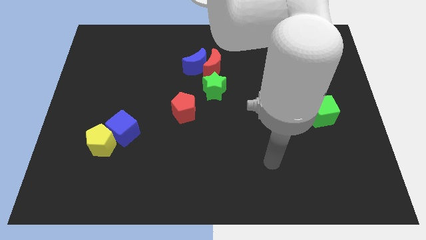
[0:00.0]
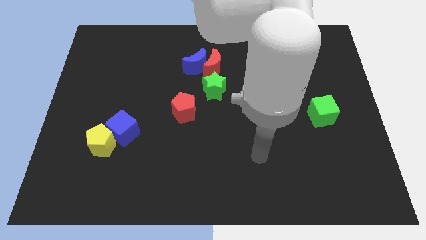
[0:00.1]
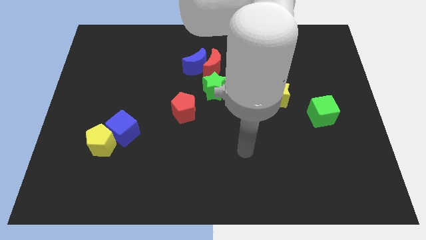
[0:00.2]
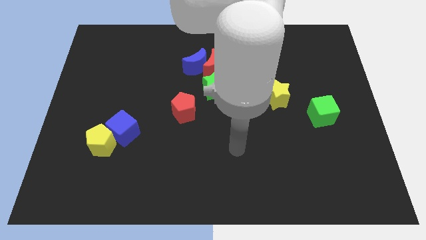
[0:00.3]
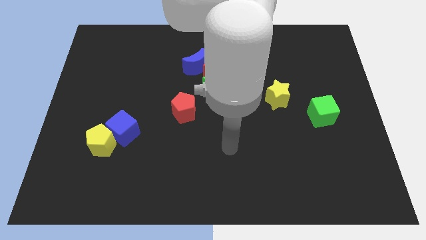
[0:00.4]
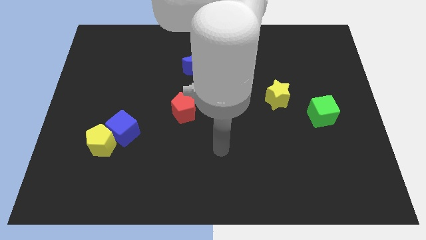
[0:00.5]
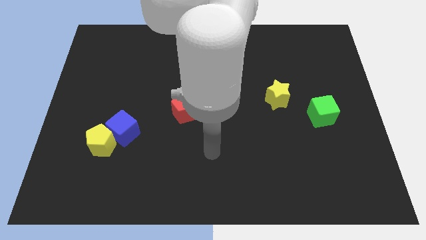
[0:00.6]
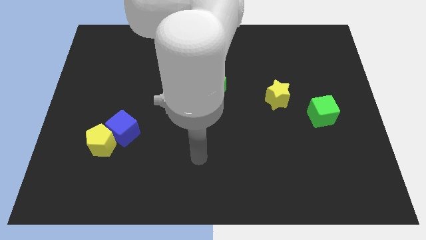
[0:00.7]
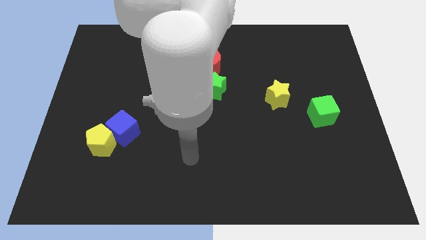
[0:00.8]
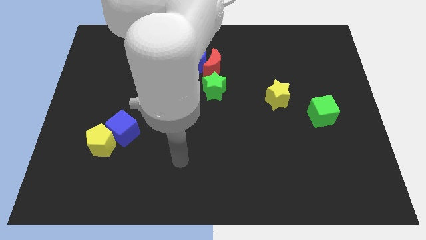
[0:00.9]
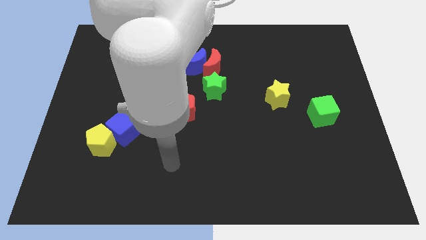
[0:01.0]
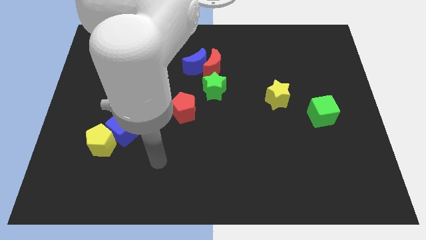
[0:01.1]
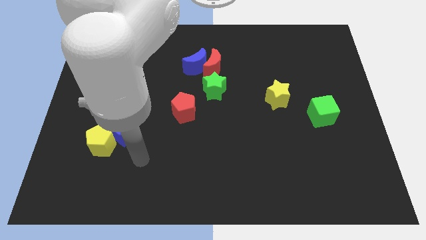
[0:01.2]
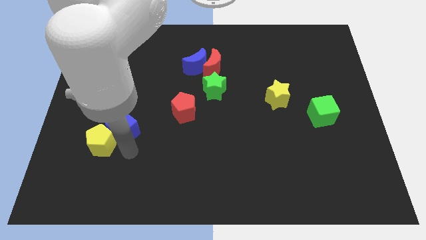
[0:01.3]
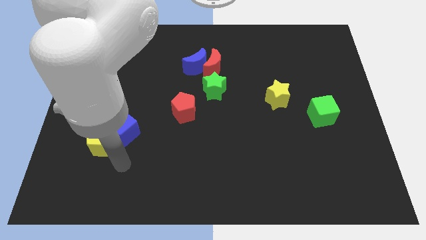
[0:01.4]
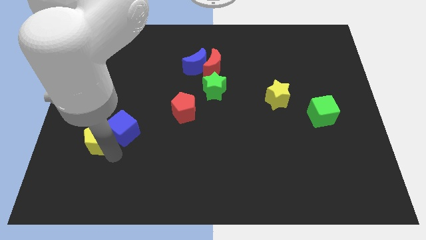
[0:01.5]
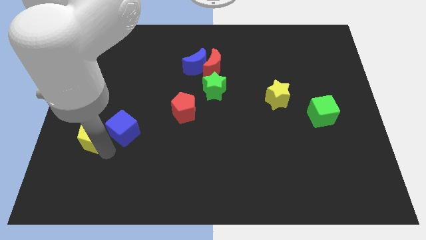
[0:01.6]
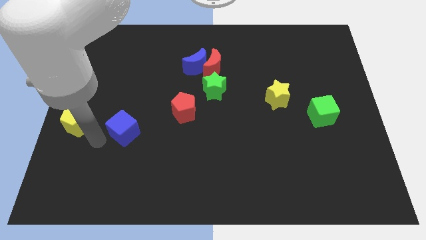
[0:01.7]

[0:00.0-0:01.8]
separate the blue cube from the yellow pentagon

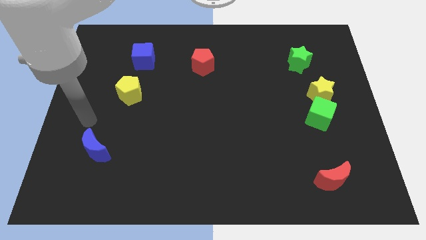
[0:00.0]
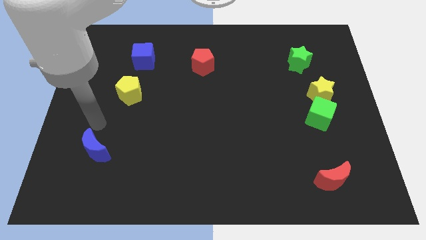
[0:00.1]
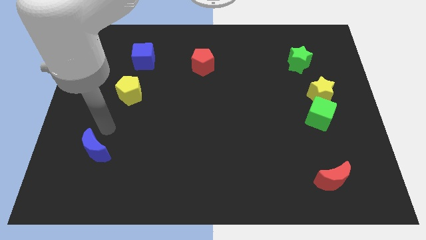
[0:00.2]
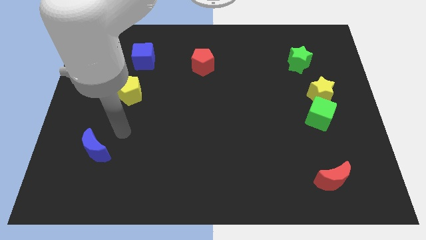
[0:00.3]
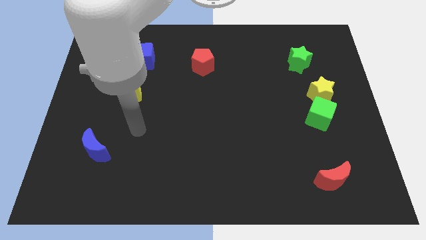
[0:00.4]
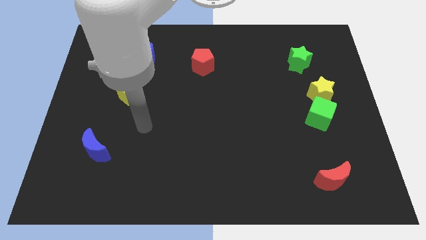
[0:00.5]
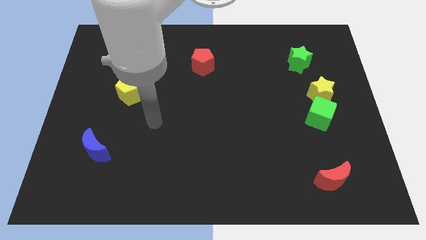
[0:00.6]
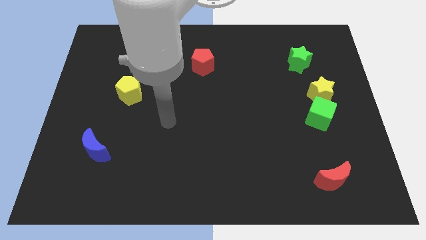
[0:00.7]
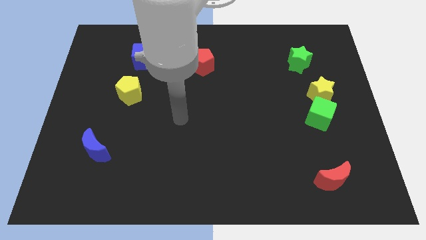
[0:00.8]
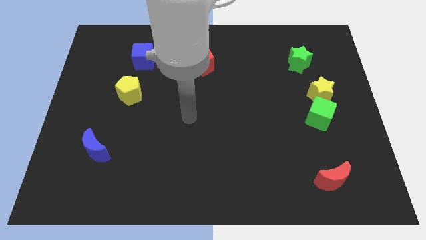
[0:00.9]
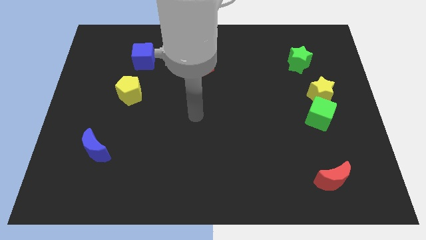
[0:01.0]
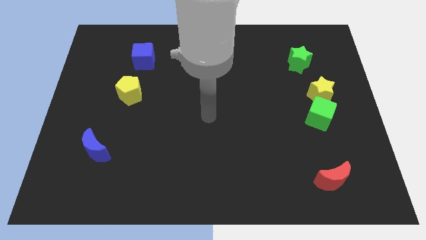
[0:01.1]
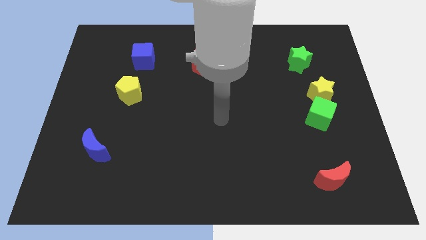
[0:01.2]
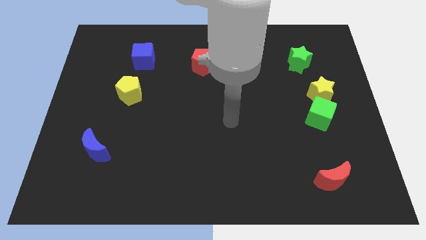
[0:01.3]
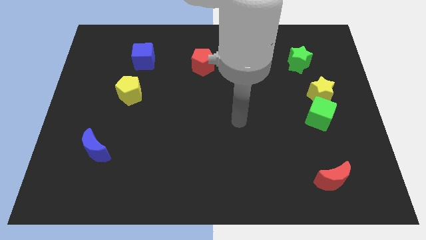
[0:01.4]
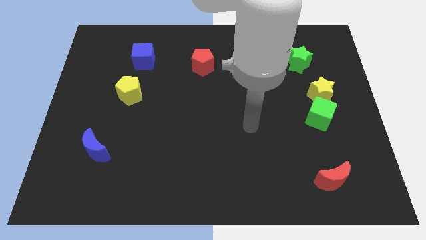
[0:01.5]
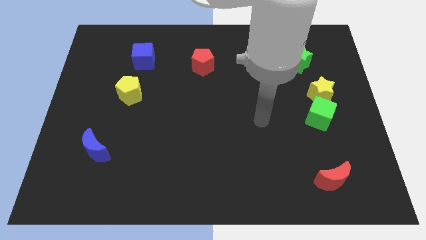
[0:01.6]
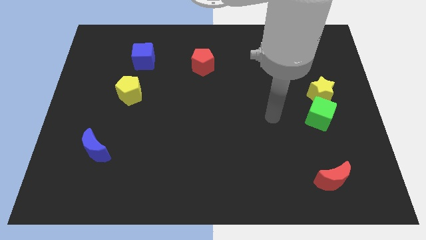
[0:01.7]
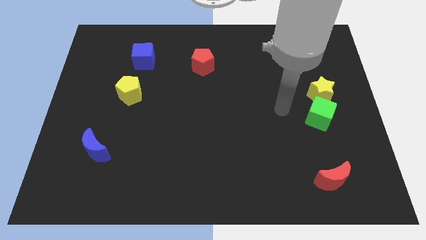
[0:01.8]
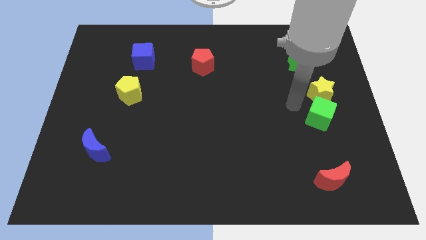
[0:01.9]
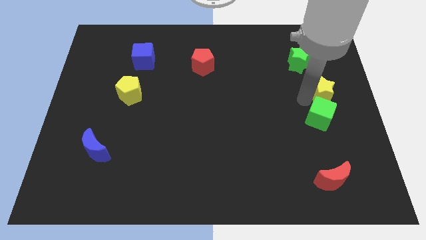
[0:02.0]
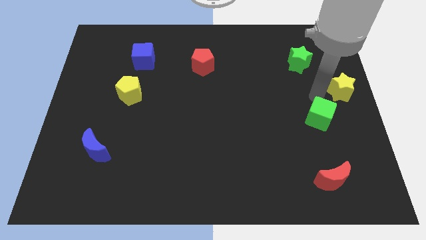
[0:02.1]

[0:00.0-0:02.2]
separate the green cube from the yellow star

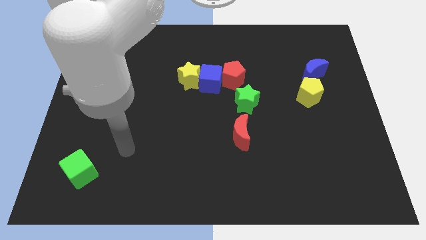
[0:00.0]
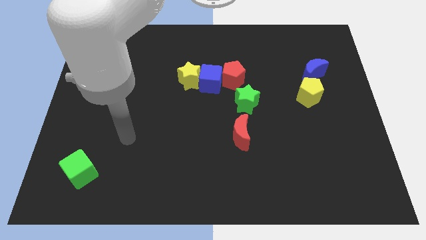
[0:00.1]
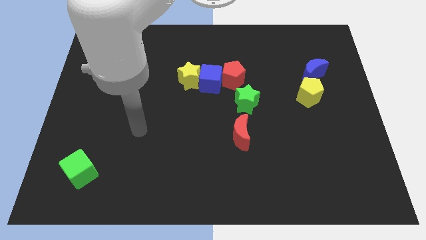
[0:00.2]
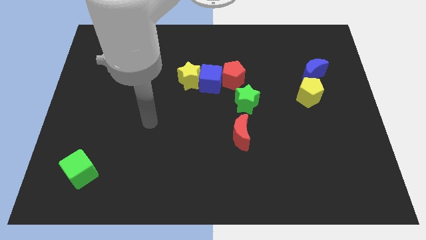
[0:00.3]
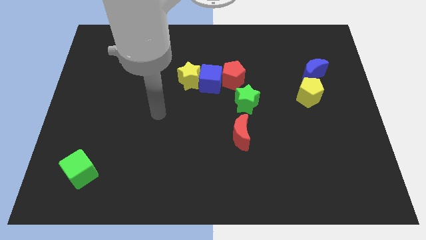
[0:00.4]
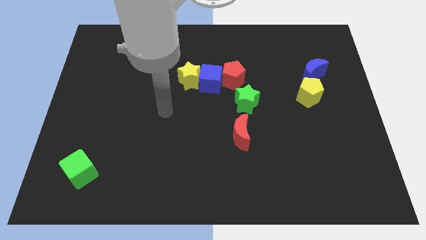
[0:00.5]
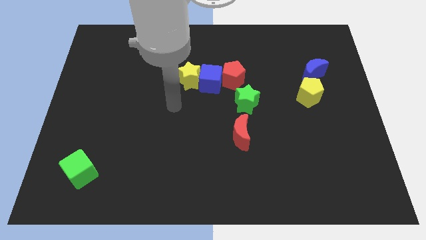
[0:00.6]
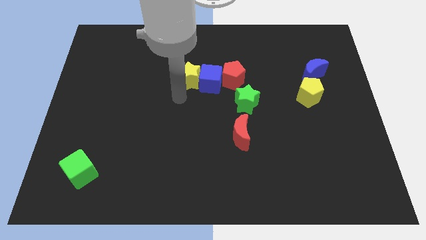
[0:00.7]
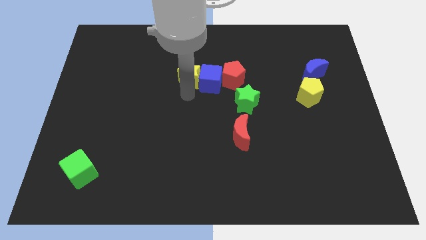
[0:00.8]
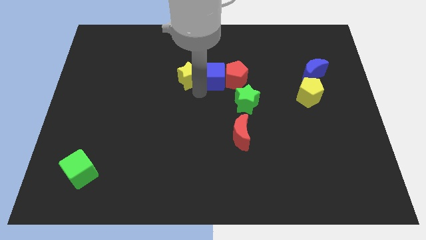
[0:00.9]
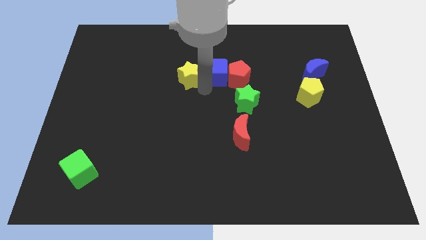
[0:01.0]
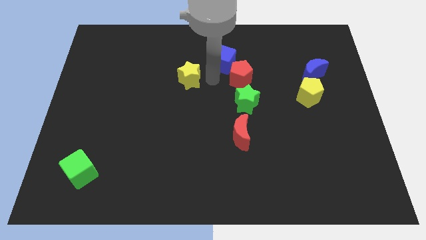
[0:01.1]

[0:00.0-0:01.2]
separate the yellow star from the blue cube

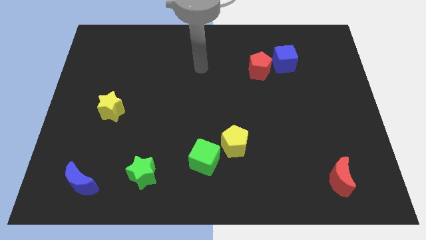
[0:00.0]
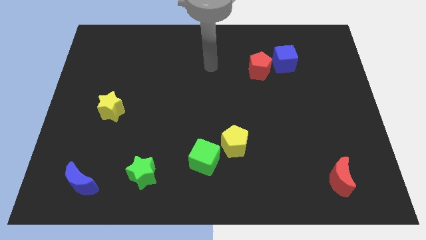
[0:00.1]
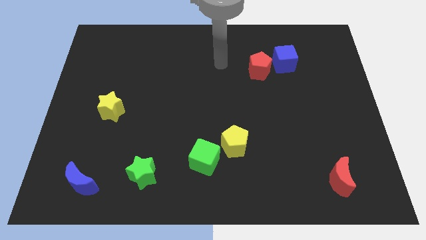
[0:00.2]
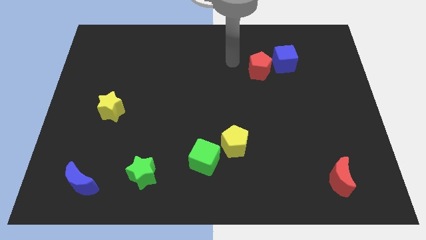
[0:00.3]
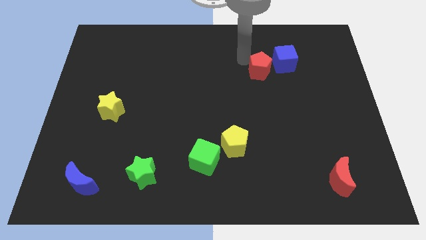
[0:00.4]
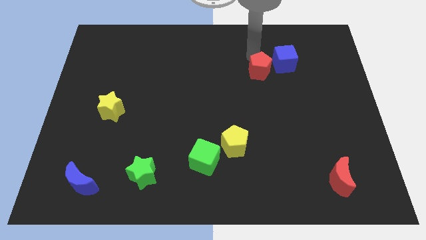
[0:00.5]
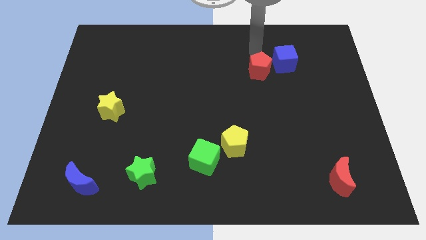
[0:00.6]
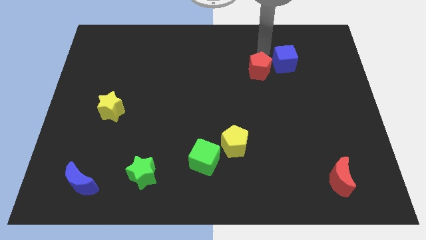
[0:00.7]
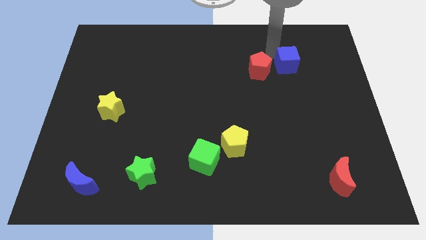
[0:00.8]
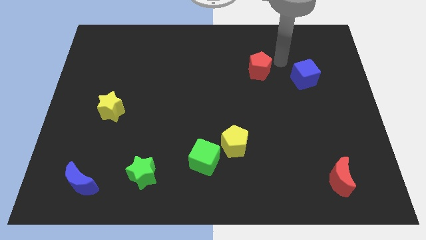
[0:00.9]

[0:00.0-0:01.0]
separate the red pentagon from the blue cube

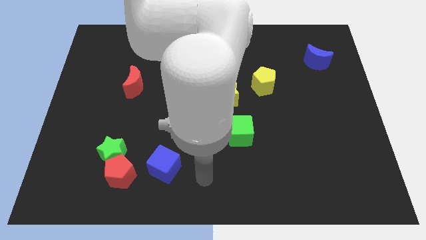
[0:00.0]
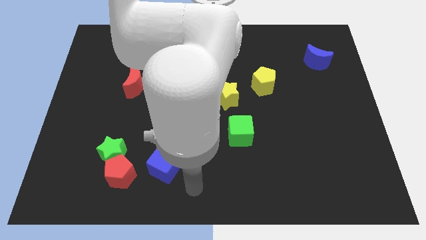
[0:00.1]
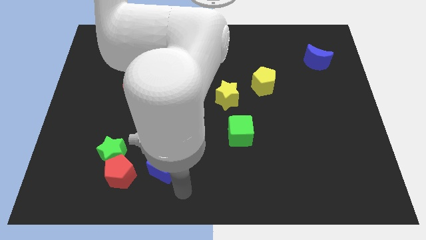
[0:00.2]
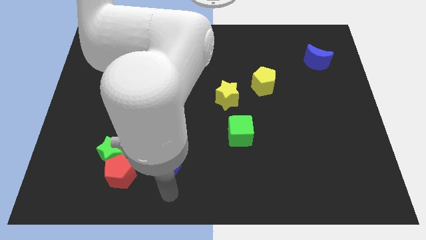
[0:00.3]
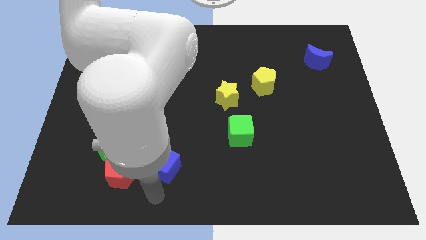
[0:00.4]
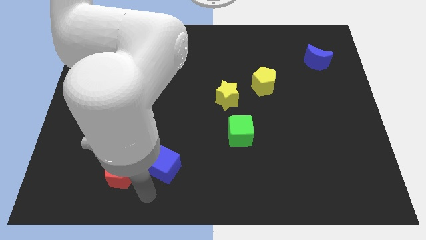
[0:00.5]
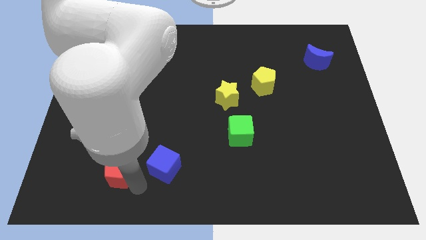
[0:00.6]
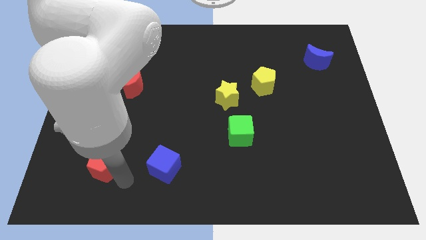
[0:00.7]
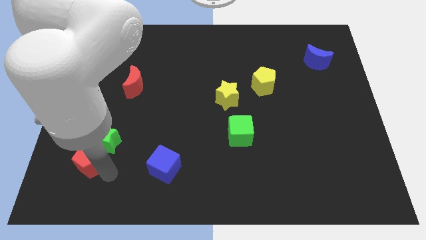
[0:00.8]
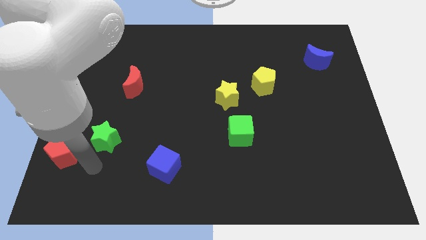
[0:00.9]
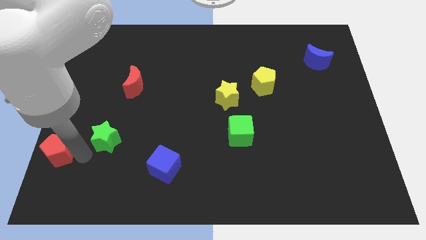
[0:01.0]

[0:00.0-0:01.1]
pull the green star apart from the red pentagon

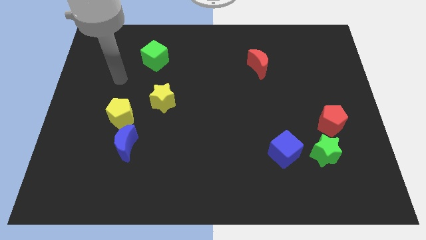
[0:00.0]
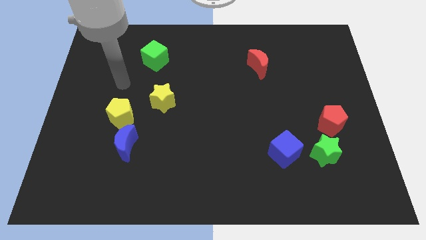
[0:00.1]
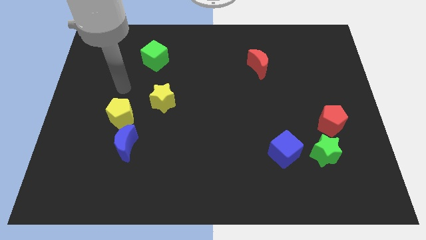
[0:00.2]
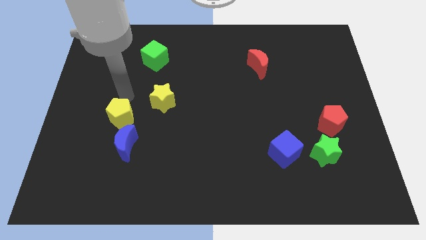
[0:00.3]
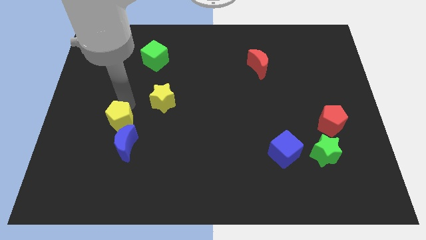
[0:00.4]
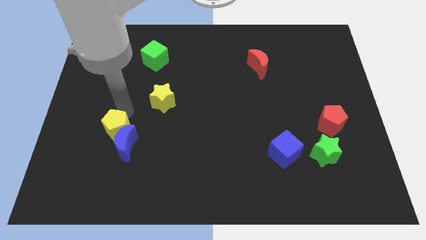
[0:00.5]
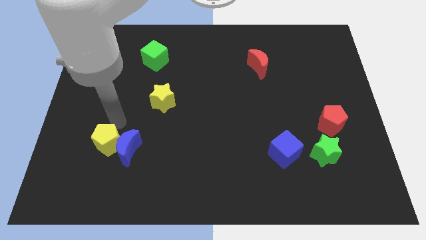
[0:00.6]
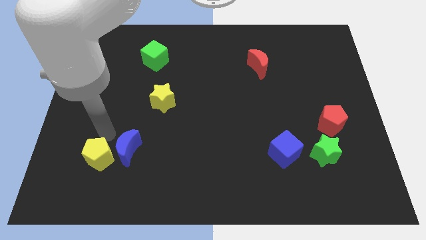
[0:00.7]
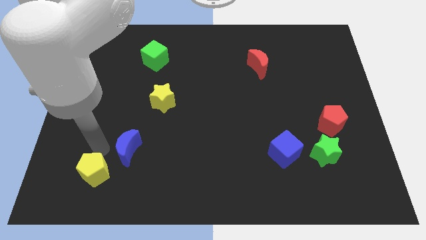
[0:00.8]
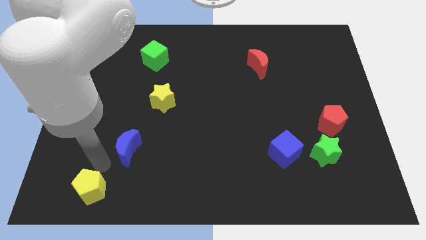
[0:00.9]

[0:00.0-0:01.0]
pull the blue moon apart from the yellow pentagon

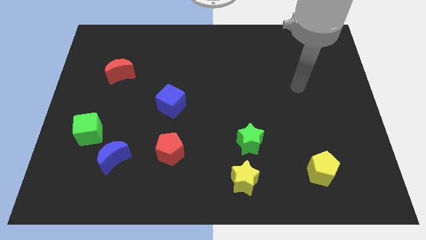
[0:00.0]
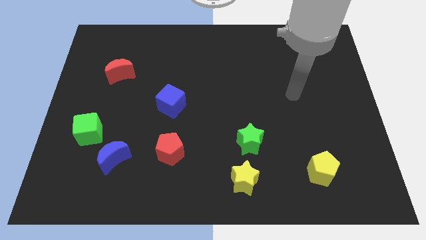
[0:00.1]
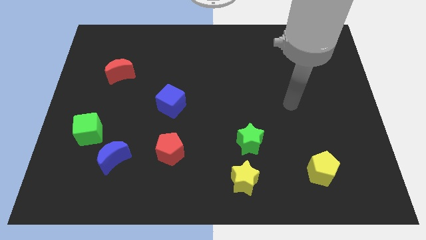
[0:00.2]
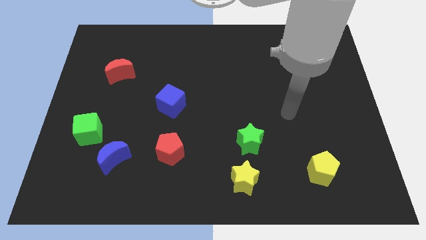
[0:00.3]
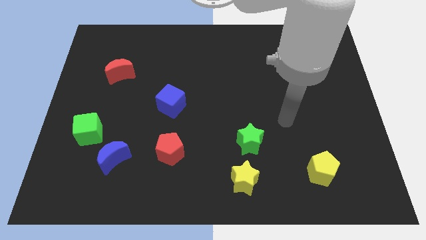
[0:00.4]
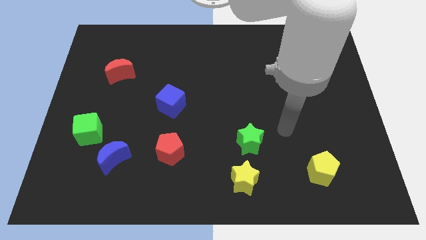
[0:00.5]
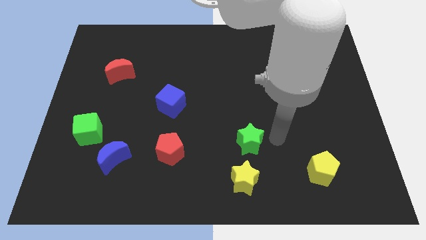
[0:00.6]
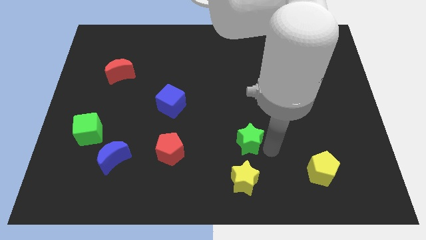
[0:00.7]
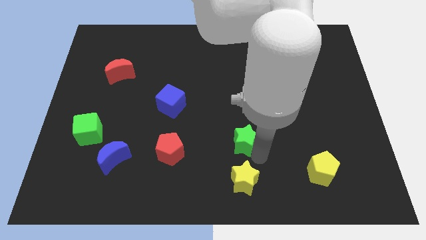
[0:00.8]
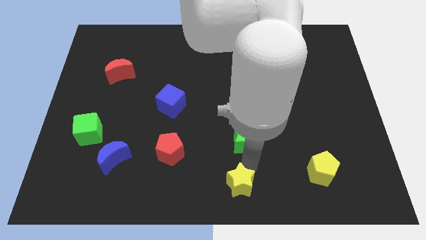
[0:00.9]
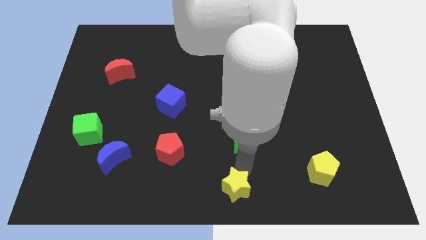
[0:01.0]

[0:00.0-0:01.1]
separate the green star from the yellow star

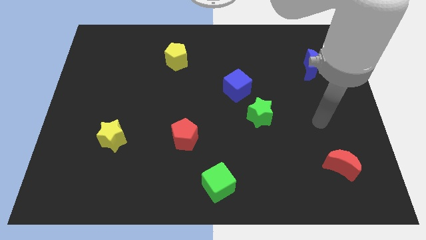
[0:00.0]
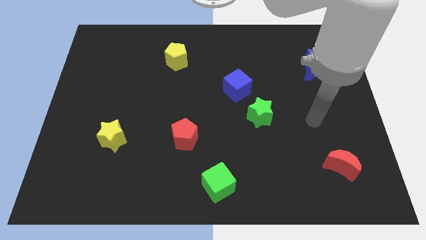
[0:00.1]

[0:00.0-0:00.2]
pull the blue cube apart from the green star
